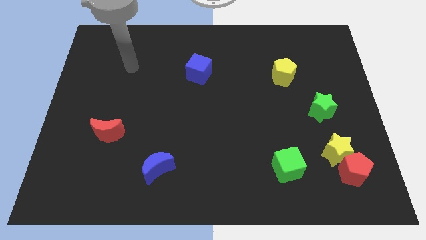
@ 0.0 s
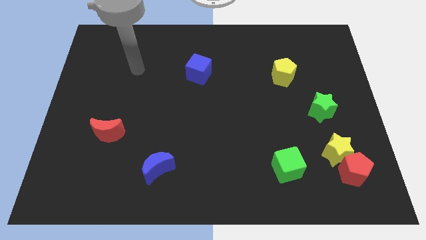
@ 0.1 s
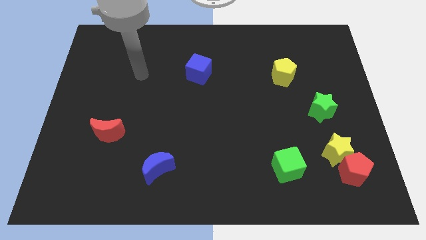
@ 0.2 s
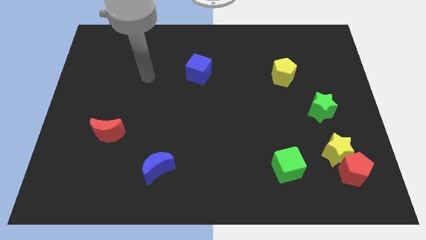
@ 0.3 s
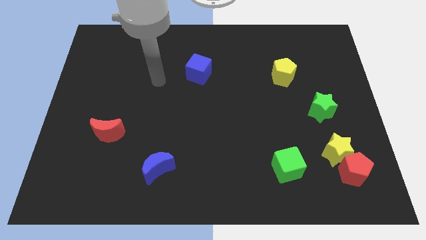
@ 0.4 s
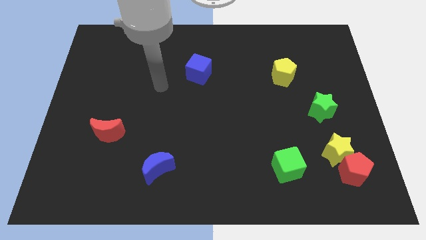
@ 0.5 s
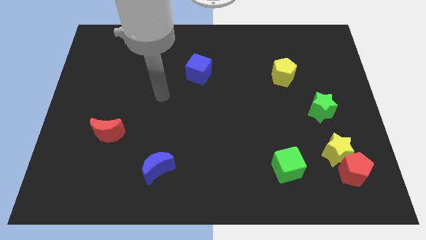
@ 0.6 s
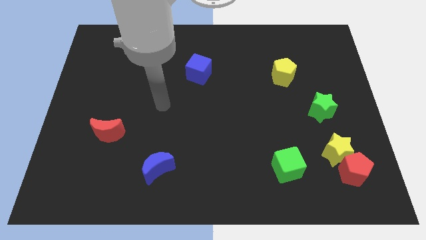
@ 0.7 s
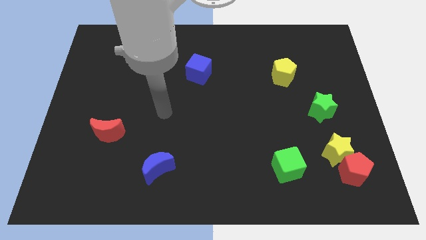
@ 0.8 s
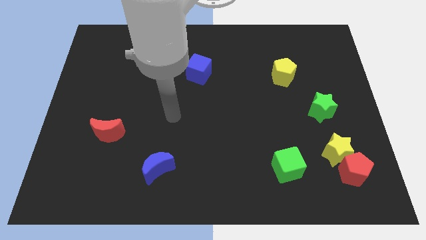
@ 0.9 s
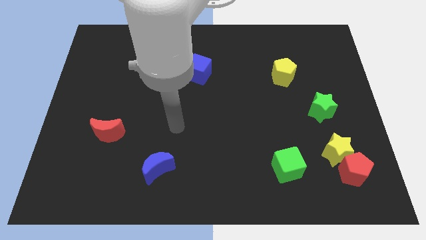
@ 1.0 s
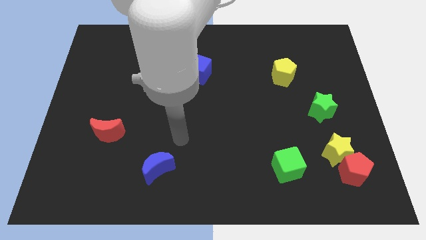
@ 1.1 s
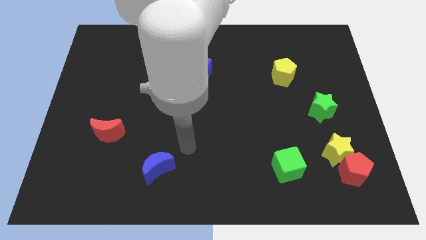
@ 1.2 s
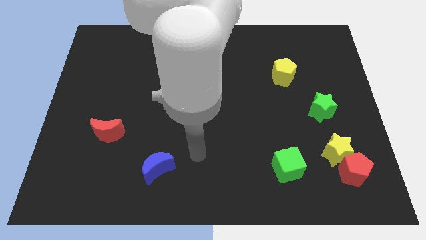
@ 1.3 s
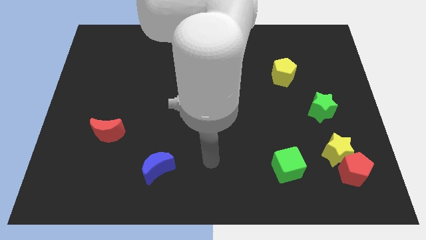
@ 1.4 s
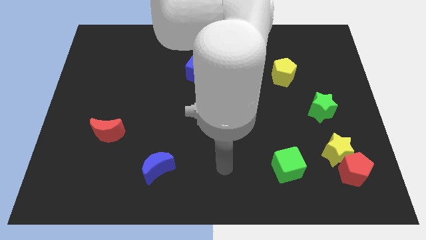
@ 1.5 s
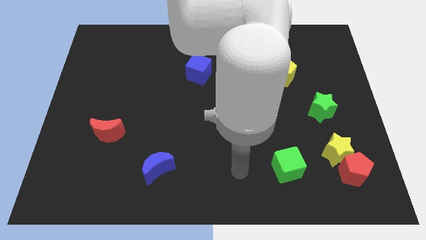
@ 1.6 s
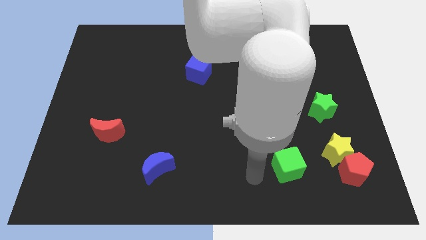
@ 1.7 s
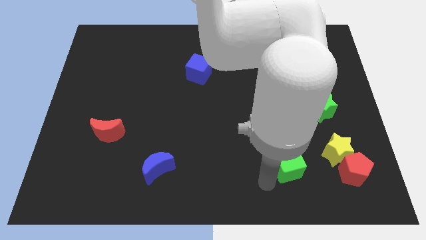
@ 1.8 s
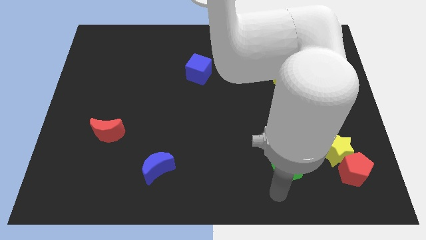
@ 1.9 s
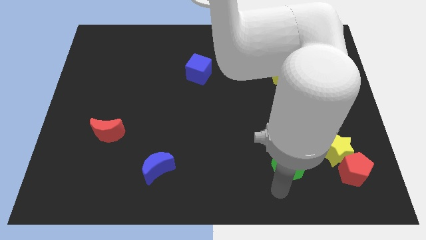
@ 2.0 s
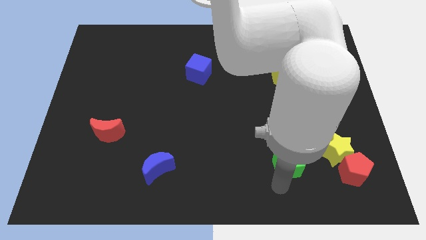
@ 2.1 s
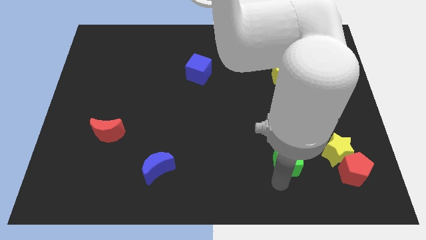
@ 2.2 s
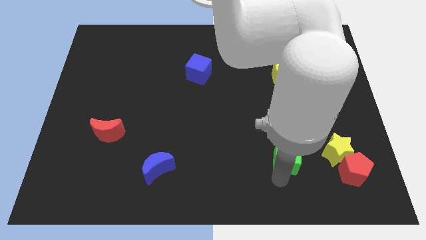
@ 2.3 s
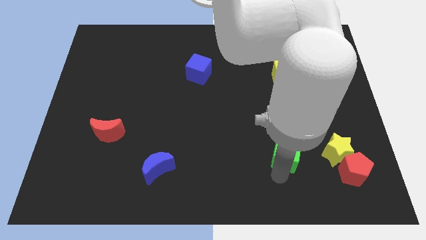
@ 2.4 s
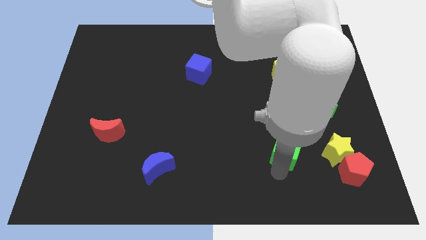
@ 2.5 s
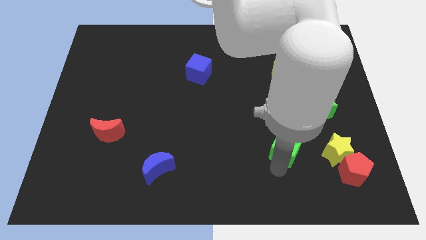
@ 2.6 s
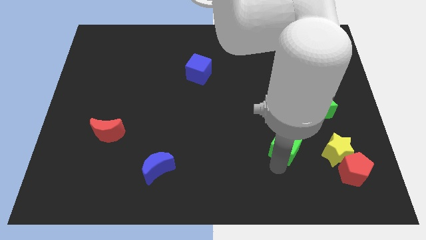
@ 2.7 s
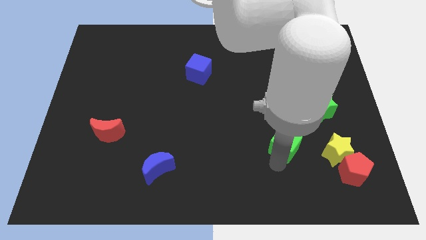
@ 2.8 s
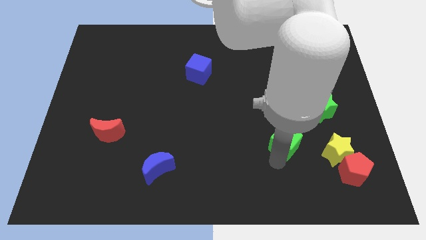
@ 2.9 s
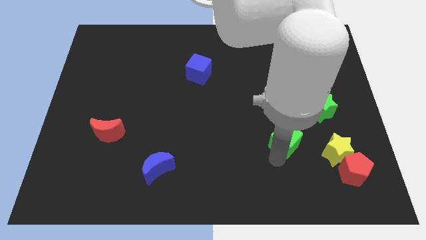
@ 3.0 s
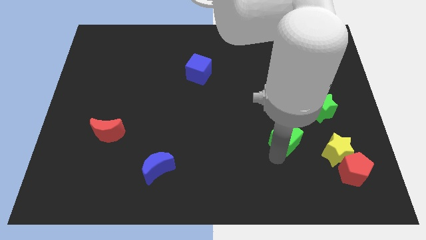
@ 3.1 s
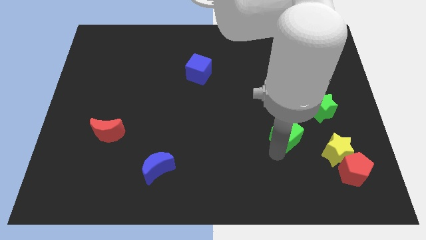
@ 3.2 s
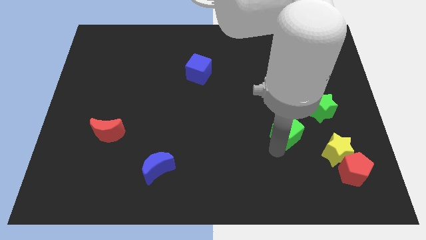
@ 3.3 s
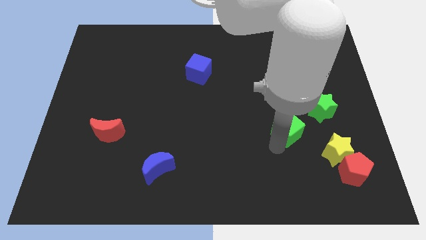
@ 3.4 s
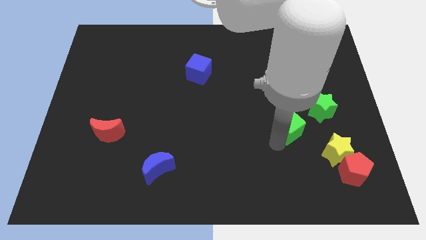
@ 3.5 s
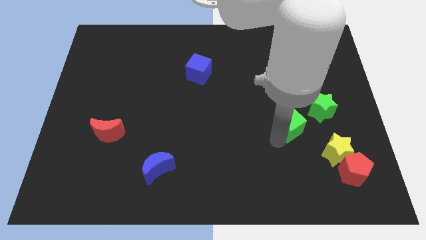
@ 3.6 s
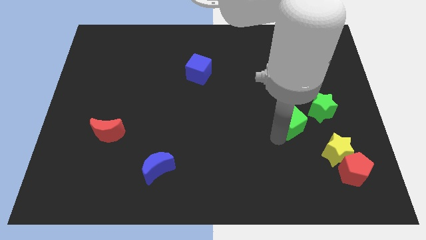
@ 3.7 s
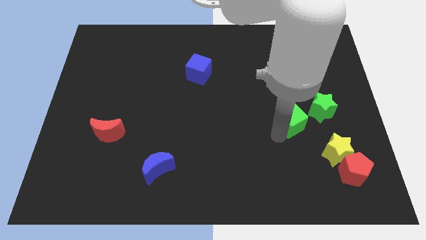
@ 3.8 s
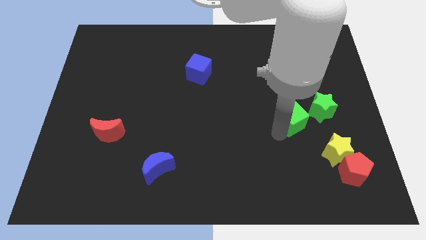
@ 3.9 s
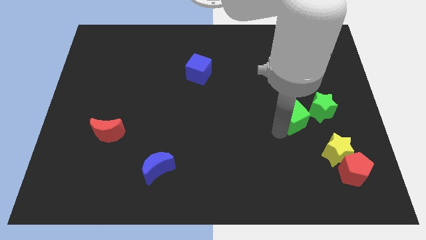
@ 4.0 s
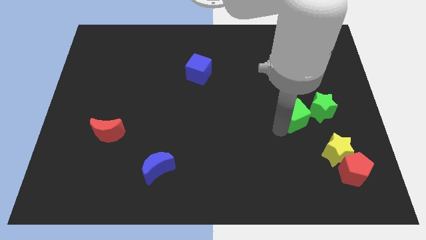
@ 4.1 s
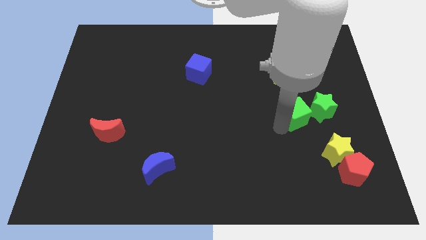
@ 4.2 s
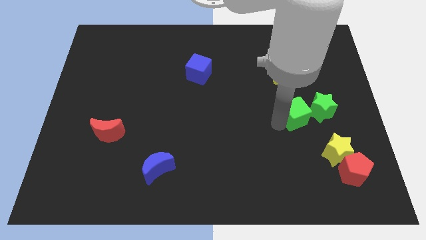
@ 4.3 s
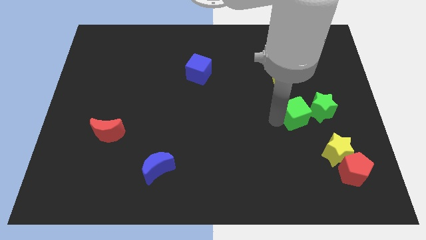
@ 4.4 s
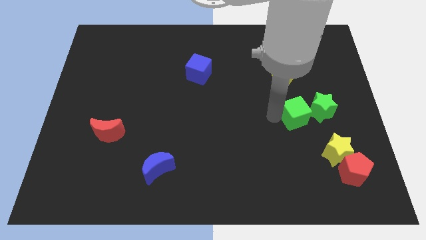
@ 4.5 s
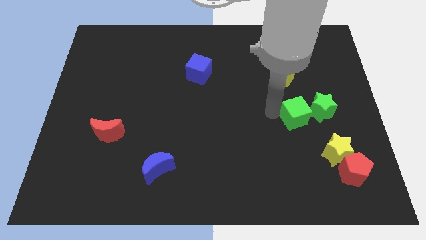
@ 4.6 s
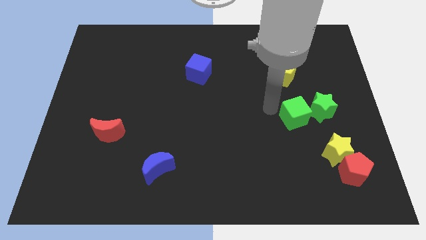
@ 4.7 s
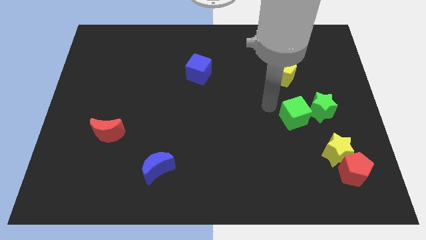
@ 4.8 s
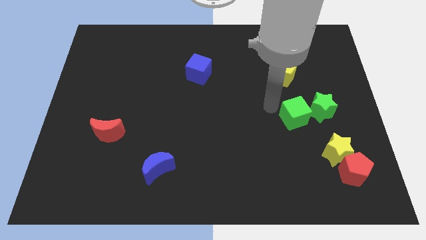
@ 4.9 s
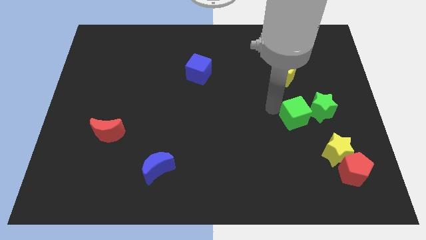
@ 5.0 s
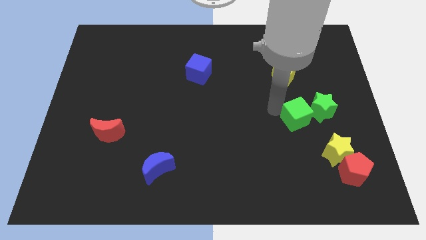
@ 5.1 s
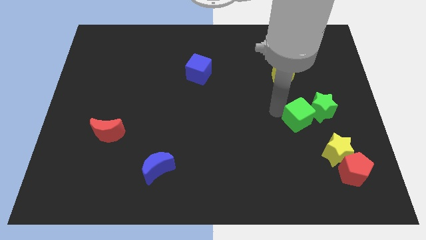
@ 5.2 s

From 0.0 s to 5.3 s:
move the green cube towards the green star

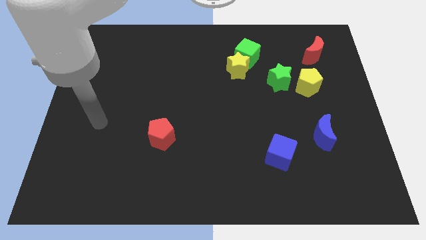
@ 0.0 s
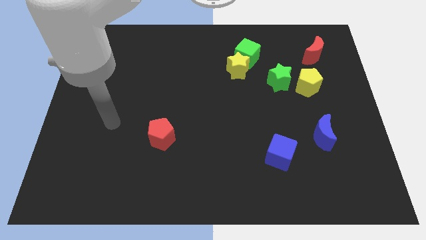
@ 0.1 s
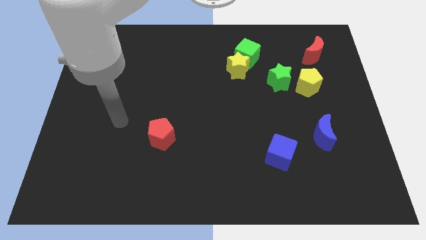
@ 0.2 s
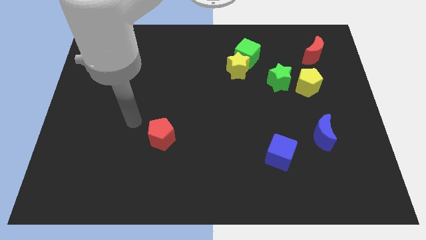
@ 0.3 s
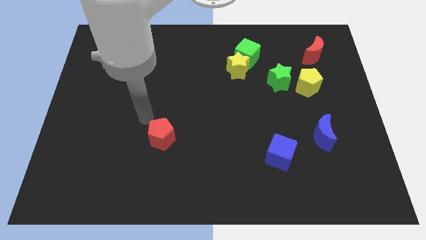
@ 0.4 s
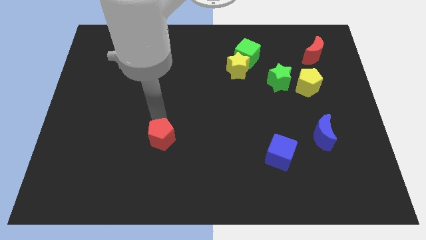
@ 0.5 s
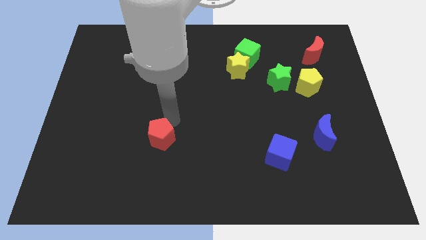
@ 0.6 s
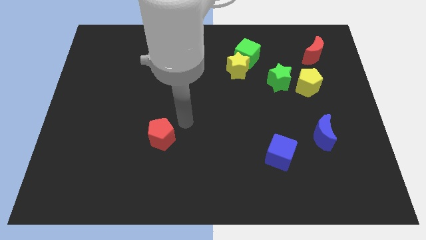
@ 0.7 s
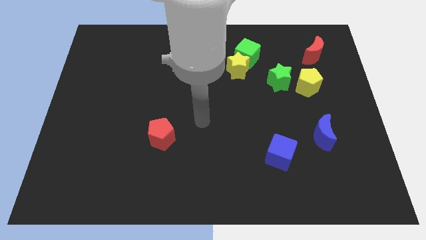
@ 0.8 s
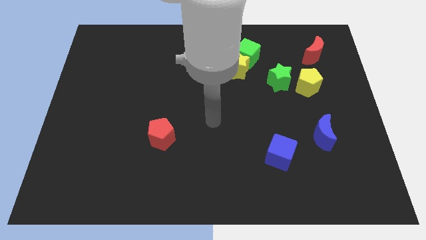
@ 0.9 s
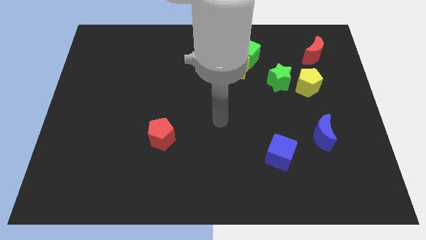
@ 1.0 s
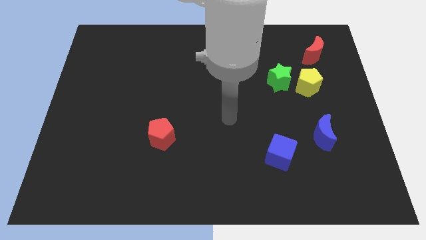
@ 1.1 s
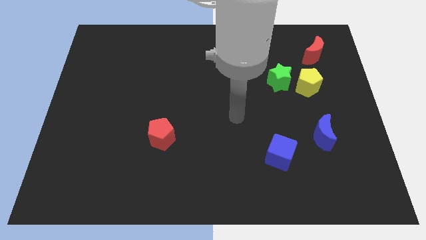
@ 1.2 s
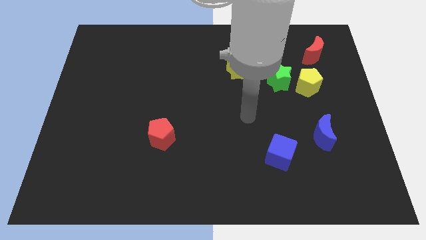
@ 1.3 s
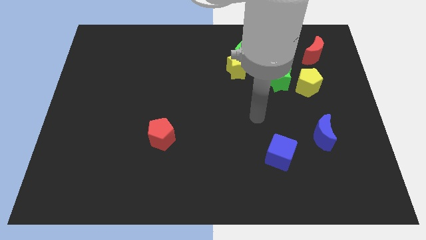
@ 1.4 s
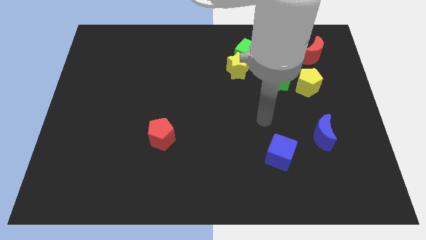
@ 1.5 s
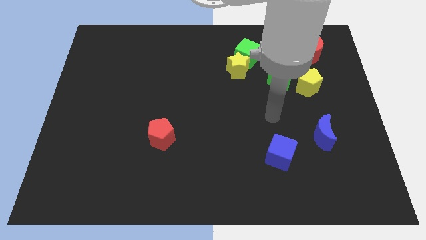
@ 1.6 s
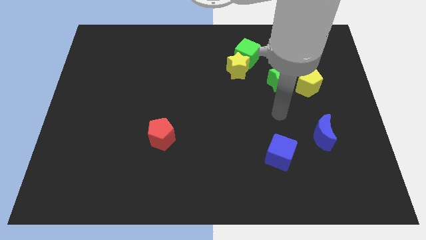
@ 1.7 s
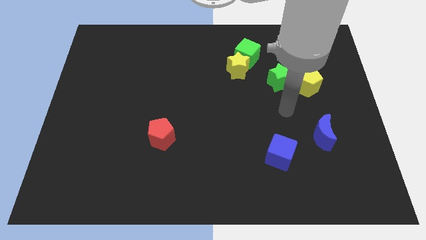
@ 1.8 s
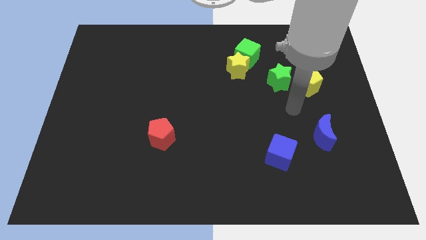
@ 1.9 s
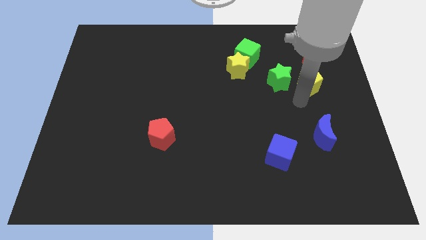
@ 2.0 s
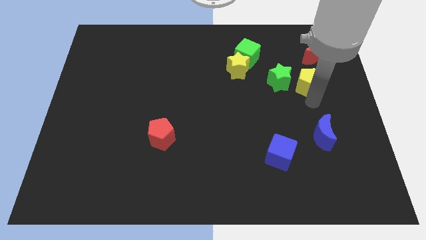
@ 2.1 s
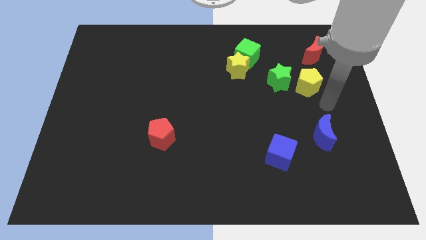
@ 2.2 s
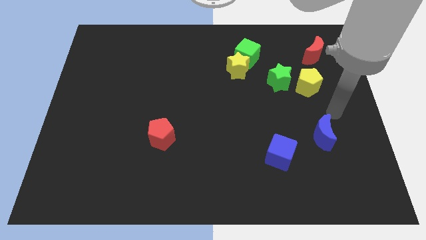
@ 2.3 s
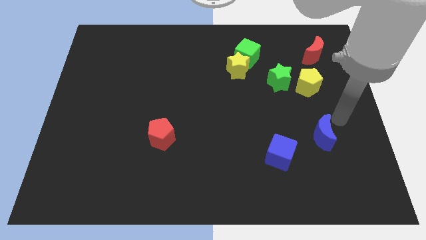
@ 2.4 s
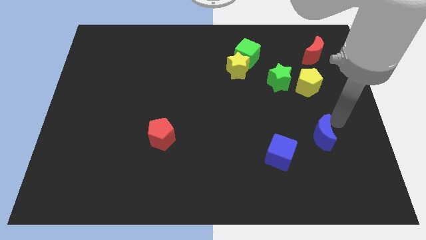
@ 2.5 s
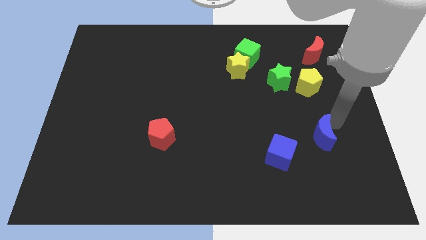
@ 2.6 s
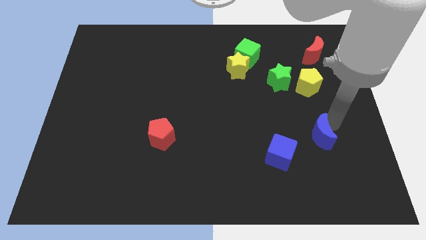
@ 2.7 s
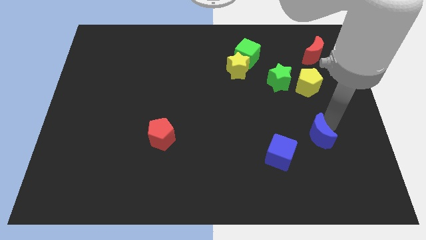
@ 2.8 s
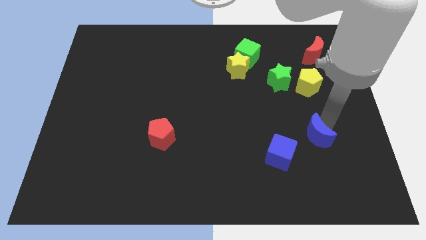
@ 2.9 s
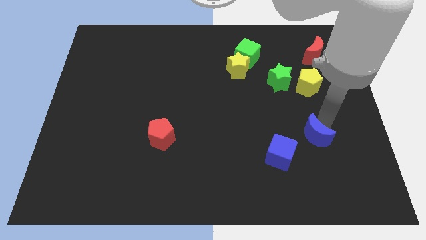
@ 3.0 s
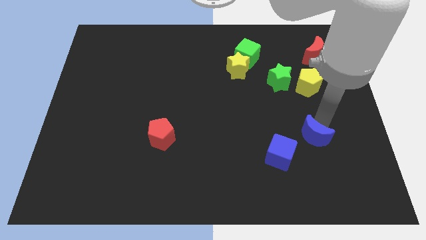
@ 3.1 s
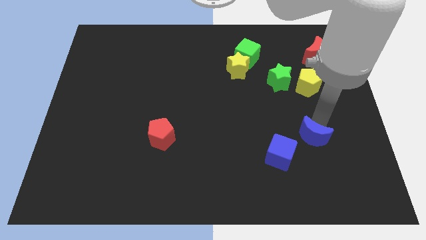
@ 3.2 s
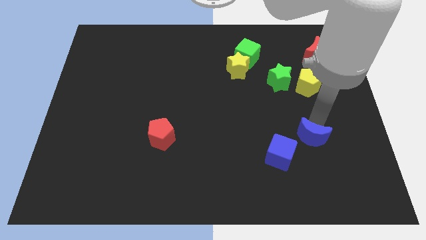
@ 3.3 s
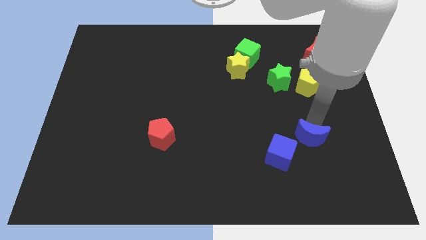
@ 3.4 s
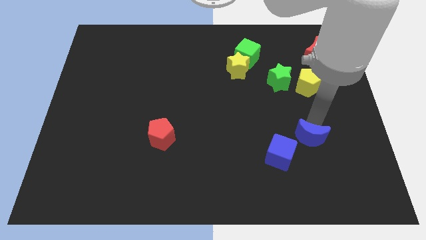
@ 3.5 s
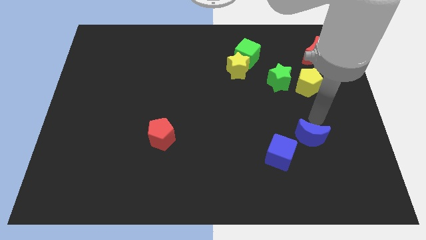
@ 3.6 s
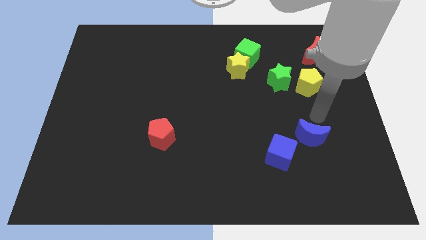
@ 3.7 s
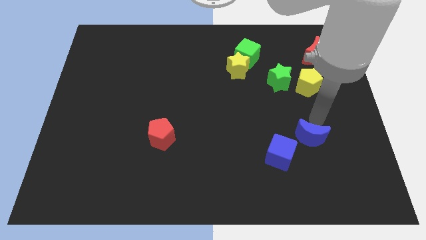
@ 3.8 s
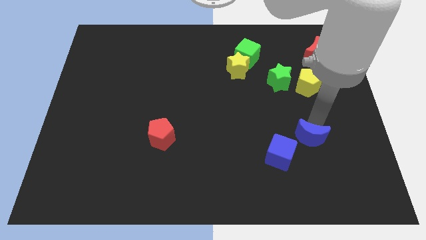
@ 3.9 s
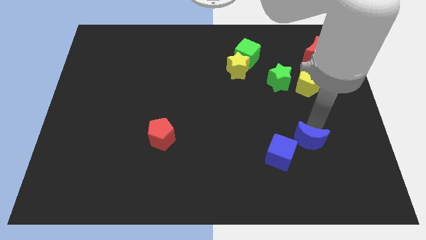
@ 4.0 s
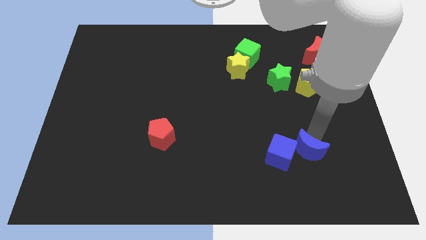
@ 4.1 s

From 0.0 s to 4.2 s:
put the blue moon to the blue cube
